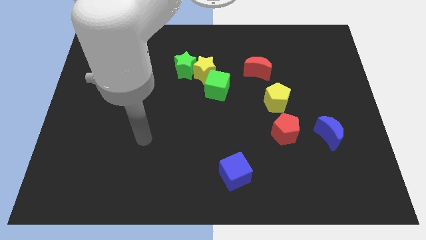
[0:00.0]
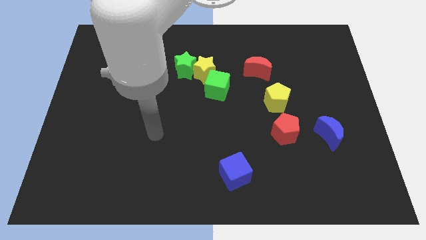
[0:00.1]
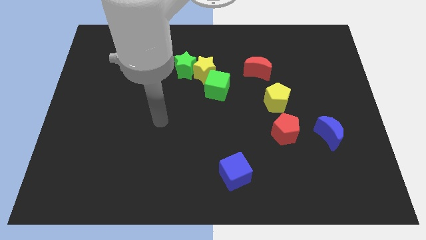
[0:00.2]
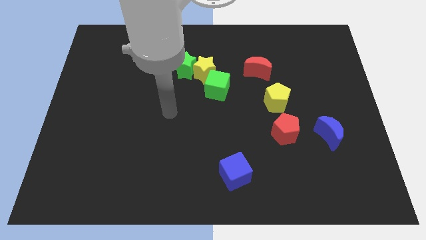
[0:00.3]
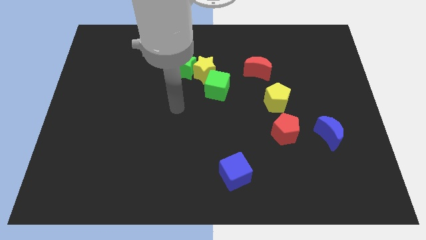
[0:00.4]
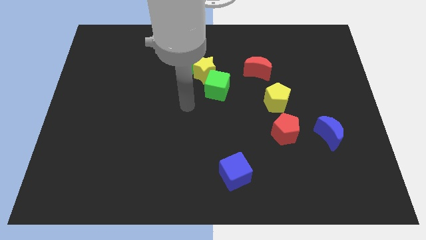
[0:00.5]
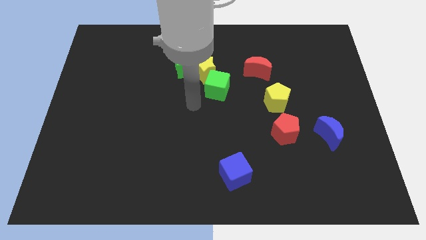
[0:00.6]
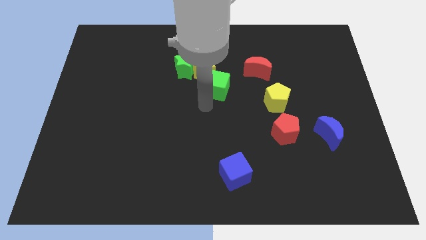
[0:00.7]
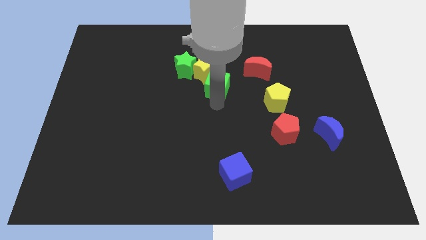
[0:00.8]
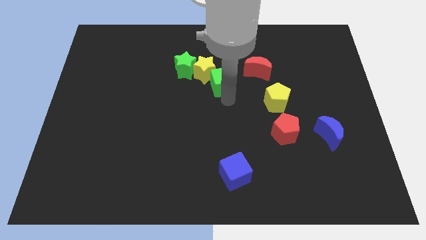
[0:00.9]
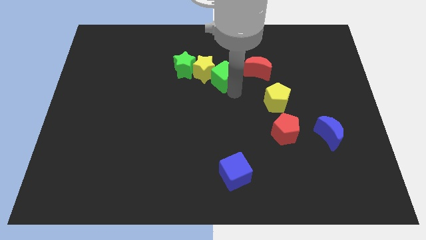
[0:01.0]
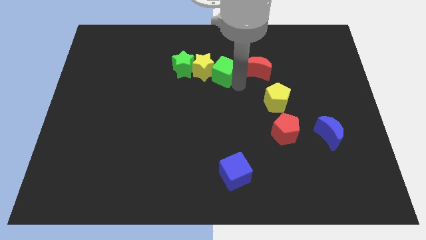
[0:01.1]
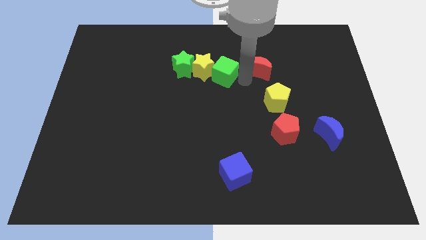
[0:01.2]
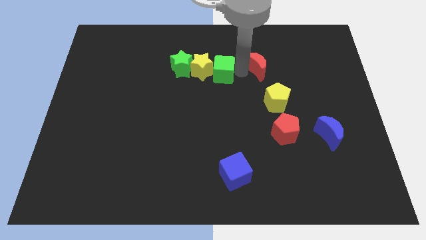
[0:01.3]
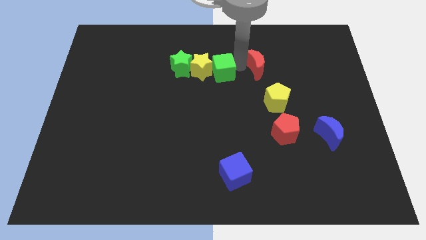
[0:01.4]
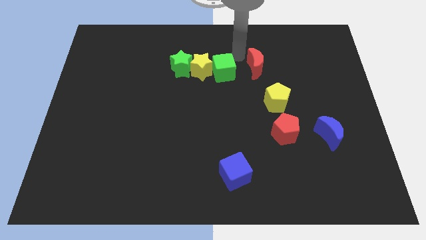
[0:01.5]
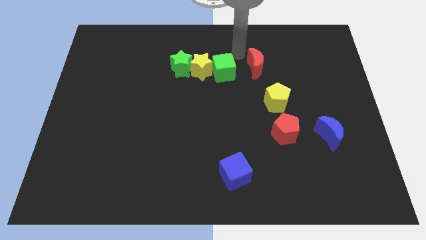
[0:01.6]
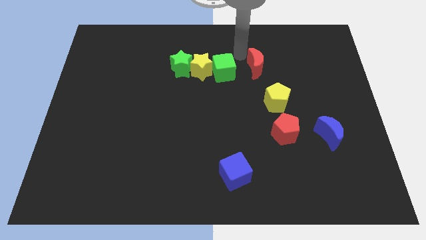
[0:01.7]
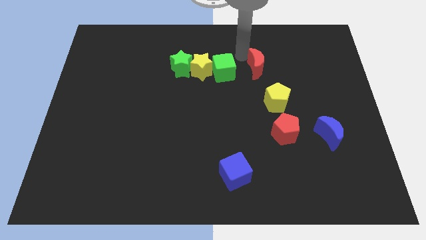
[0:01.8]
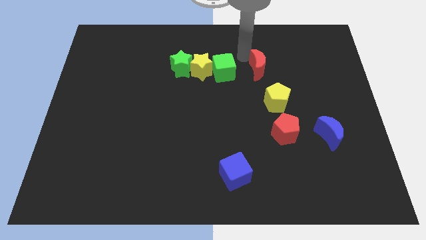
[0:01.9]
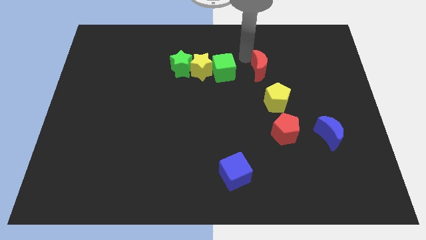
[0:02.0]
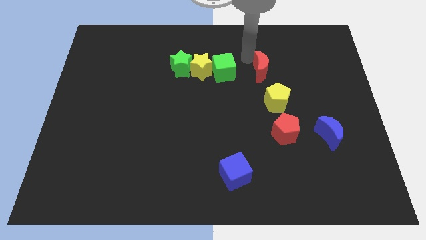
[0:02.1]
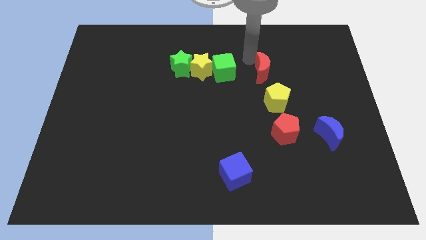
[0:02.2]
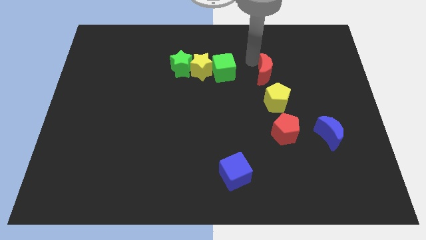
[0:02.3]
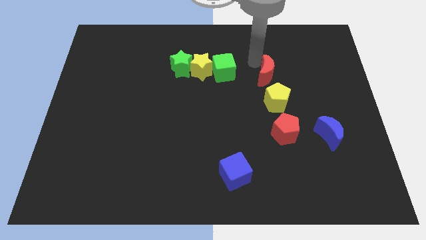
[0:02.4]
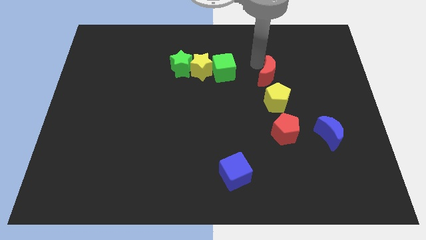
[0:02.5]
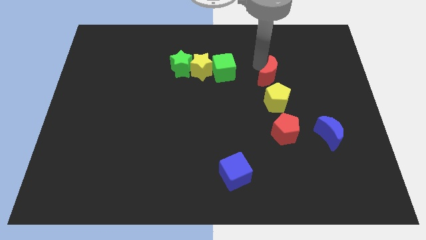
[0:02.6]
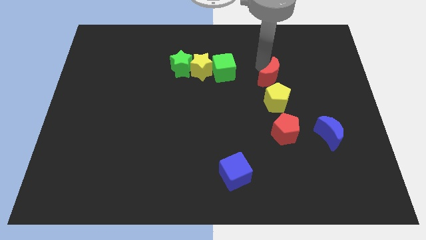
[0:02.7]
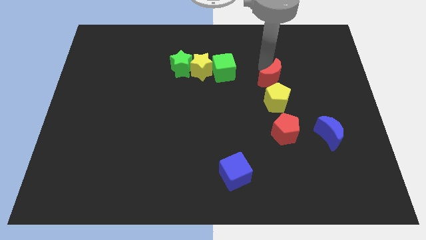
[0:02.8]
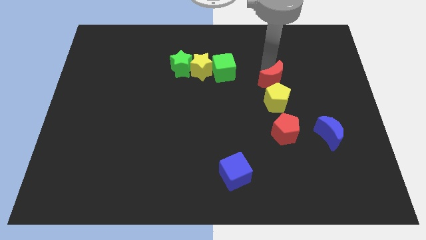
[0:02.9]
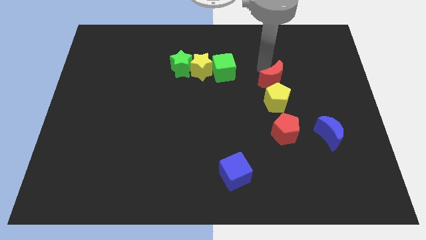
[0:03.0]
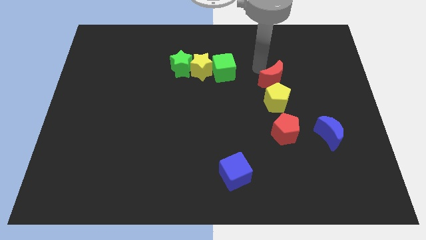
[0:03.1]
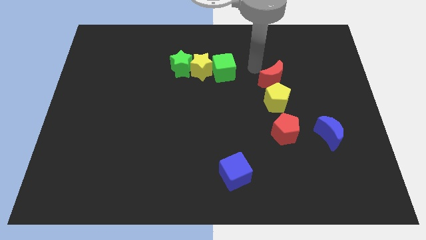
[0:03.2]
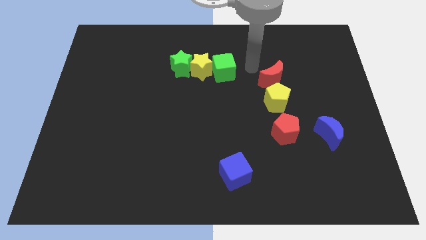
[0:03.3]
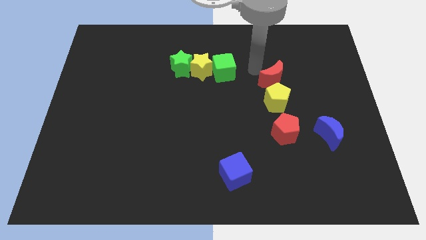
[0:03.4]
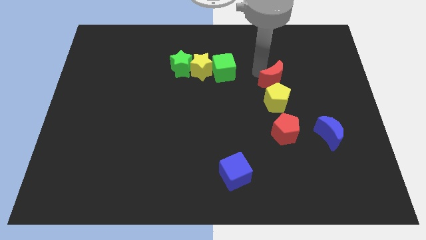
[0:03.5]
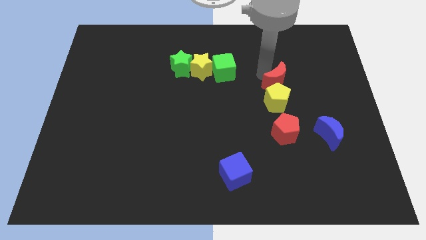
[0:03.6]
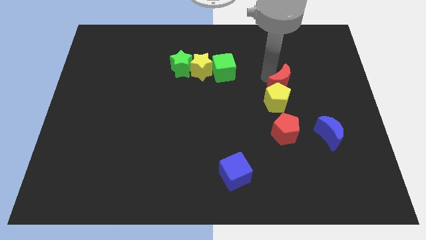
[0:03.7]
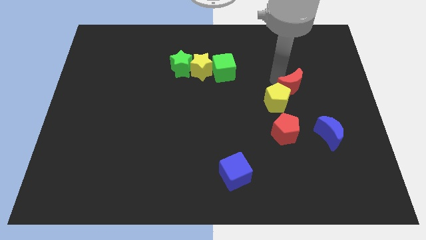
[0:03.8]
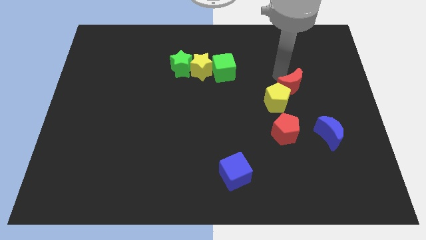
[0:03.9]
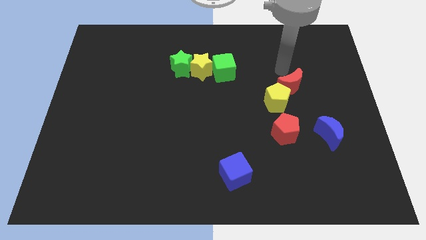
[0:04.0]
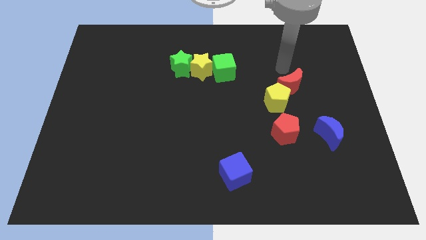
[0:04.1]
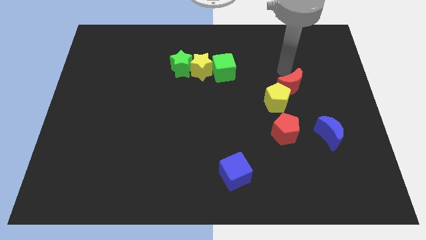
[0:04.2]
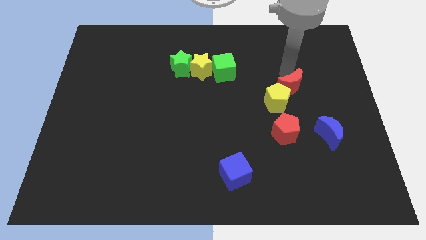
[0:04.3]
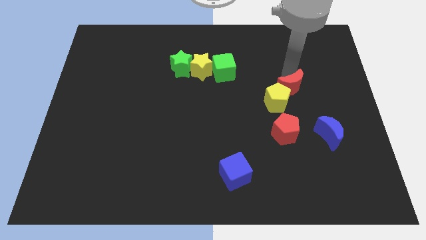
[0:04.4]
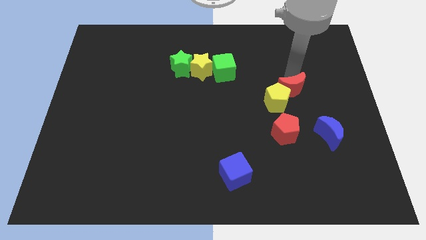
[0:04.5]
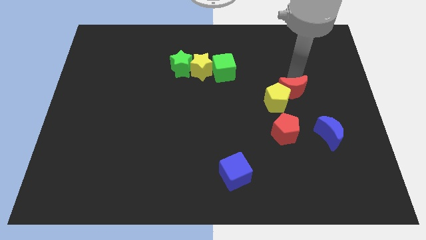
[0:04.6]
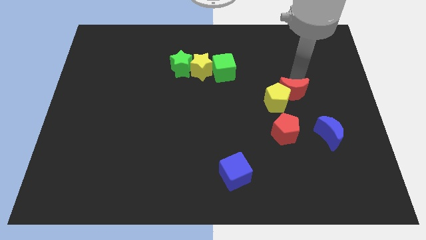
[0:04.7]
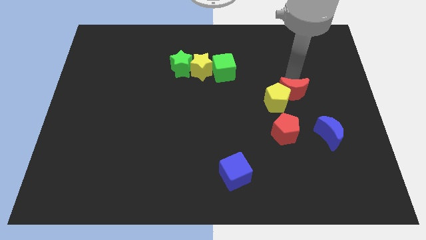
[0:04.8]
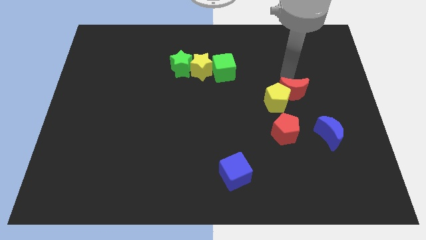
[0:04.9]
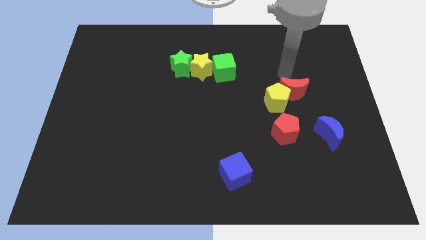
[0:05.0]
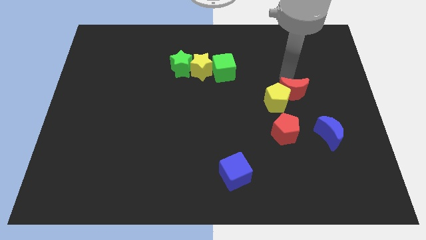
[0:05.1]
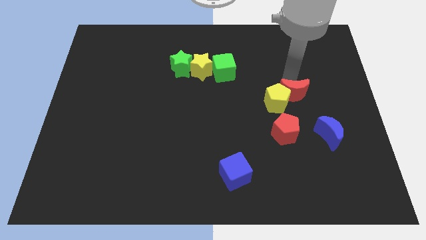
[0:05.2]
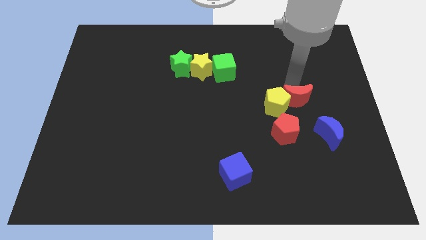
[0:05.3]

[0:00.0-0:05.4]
slide the red moon to the top left side of the blue moon

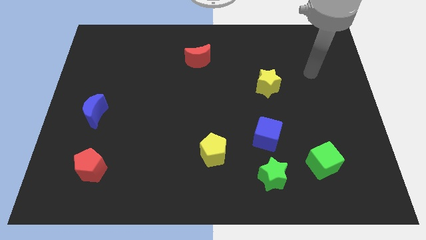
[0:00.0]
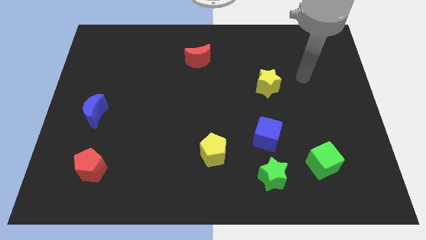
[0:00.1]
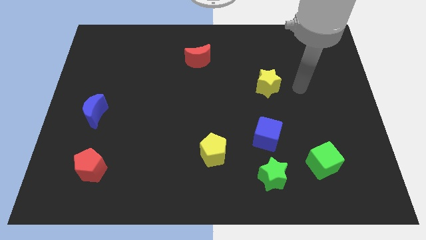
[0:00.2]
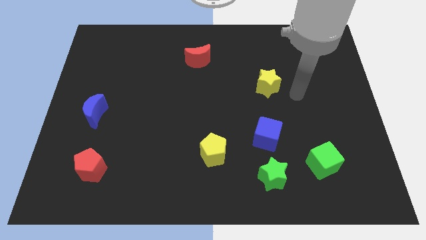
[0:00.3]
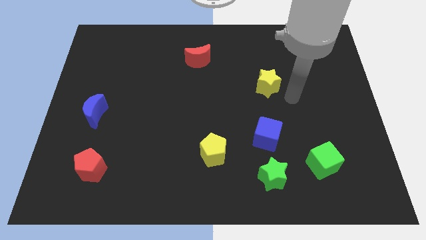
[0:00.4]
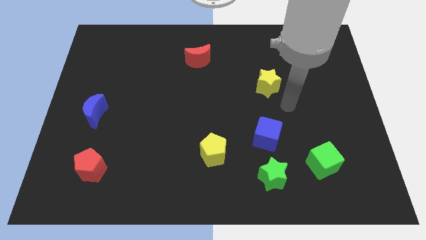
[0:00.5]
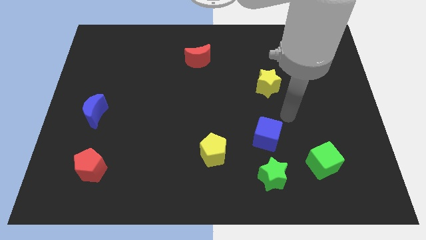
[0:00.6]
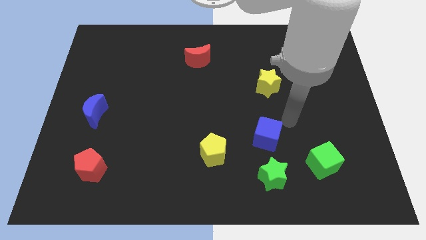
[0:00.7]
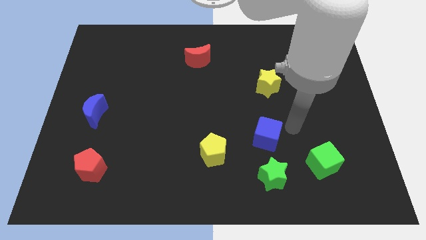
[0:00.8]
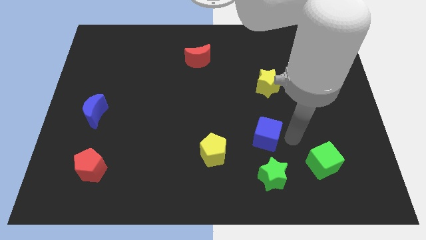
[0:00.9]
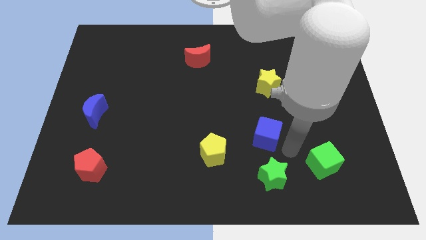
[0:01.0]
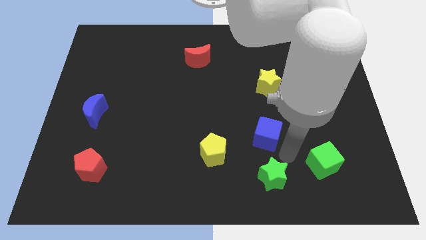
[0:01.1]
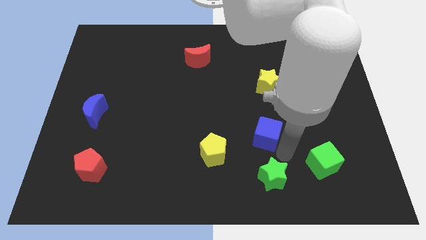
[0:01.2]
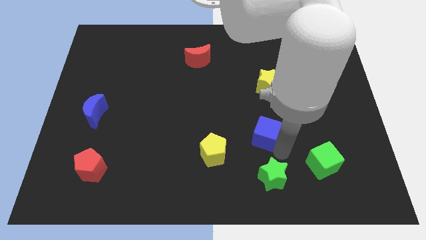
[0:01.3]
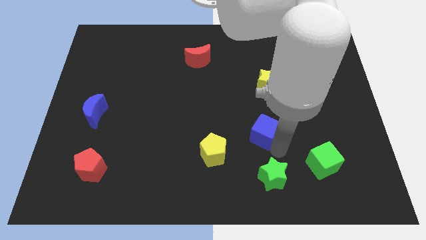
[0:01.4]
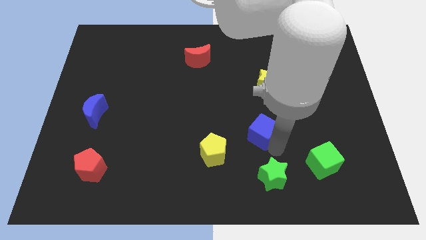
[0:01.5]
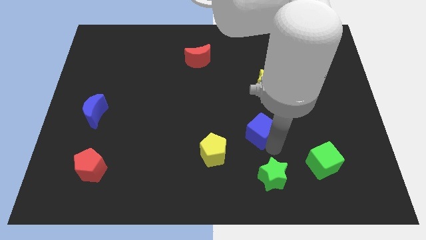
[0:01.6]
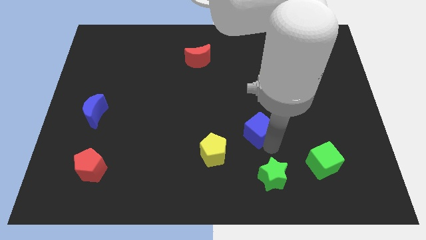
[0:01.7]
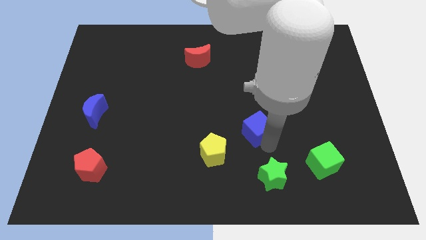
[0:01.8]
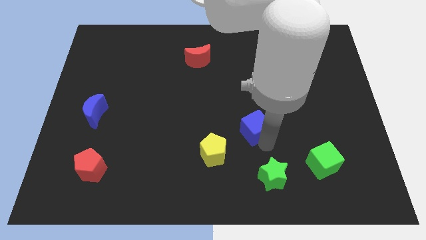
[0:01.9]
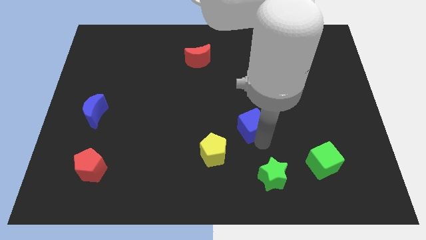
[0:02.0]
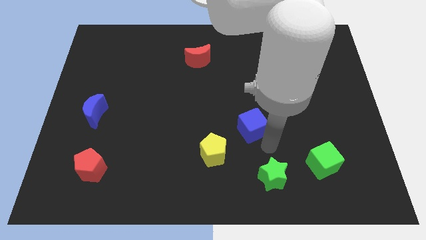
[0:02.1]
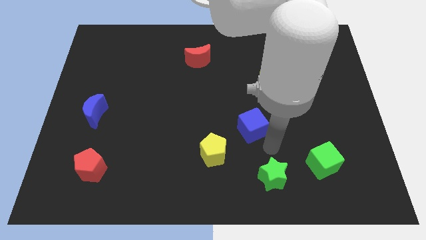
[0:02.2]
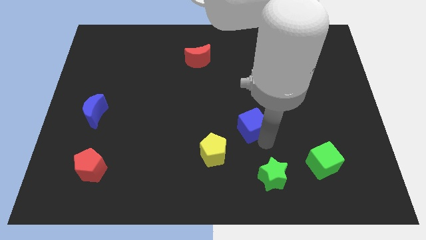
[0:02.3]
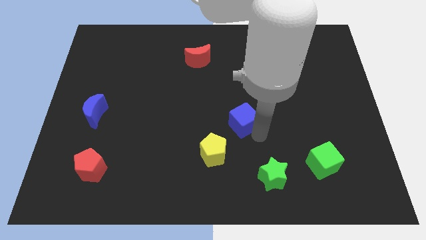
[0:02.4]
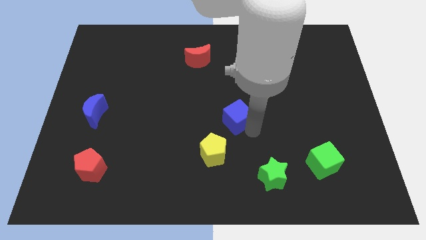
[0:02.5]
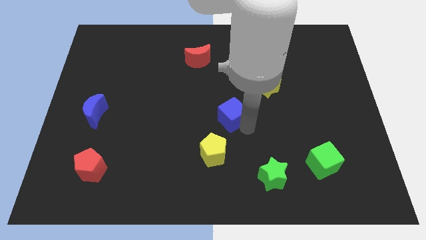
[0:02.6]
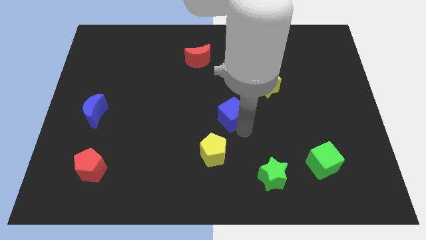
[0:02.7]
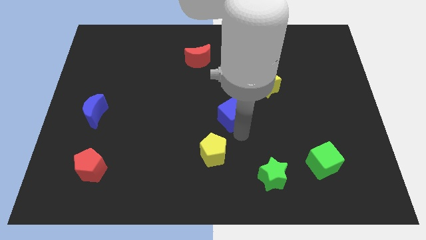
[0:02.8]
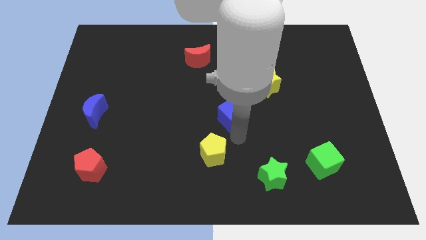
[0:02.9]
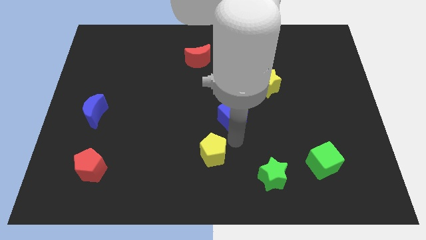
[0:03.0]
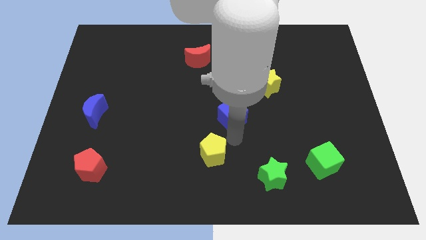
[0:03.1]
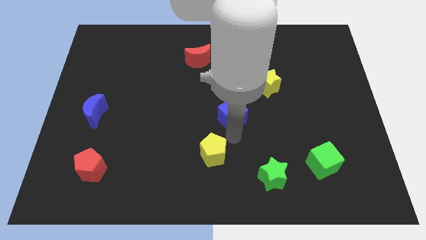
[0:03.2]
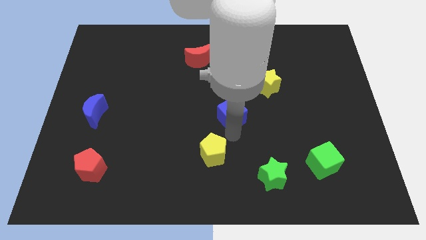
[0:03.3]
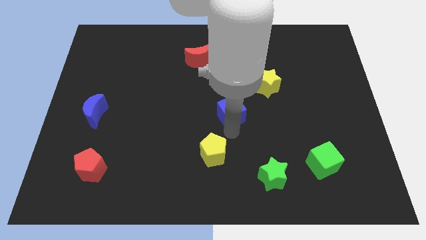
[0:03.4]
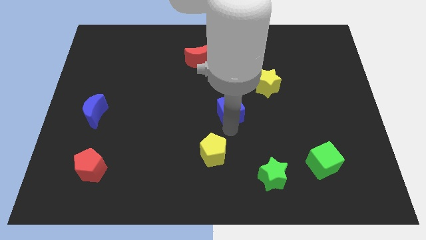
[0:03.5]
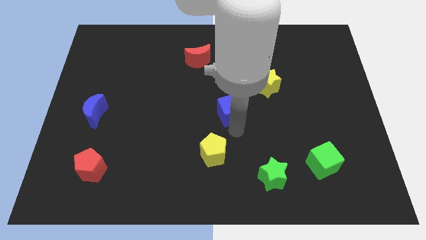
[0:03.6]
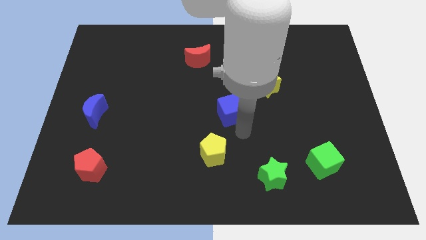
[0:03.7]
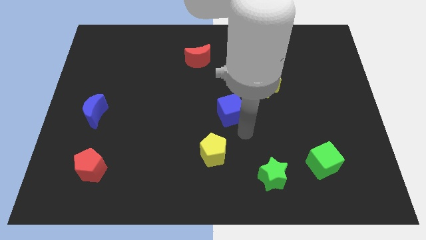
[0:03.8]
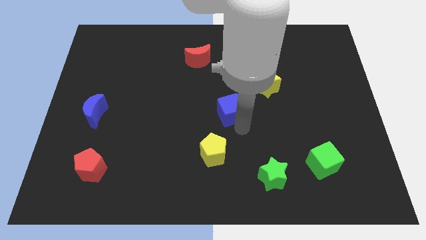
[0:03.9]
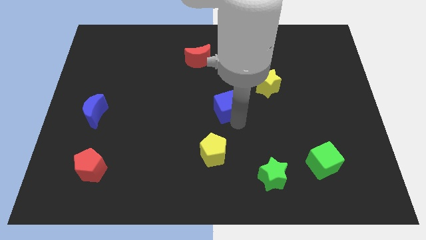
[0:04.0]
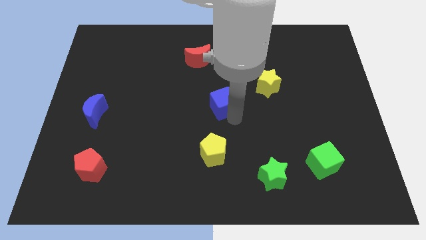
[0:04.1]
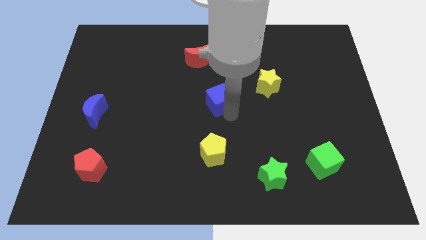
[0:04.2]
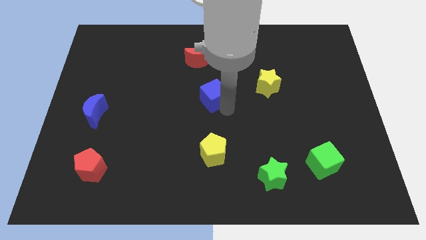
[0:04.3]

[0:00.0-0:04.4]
push the blue cube below the red moon
